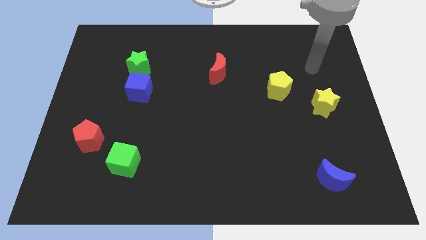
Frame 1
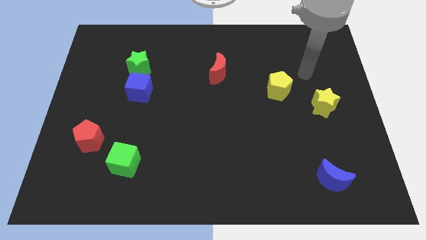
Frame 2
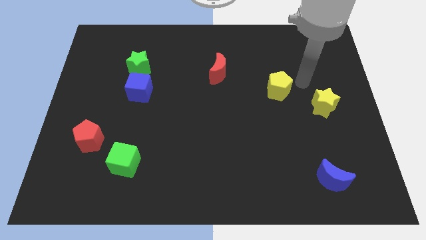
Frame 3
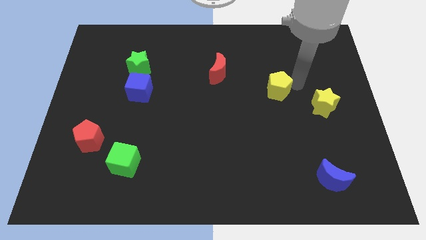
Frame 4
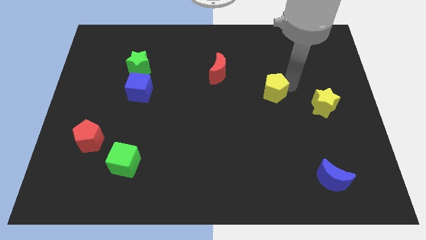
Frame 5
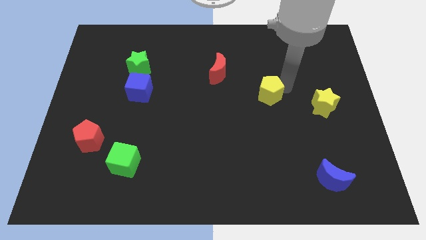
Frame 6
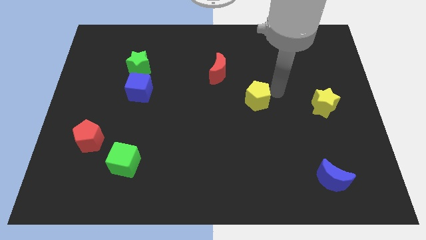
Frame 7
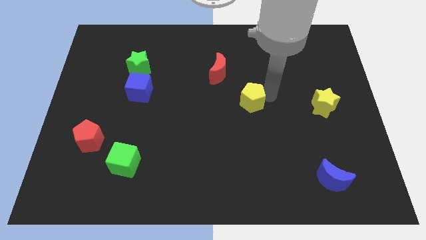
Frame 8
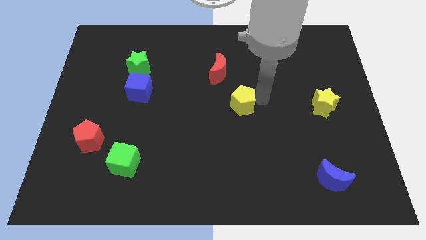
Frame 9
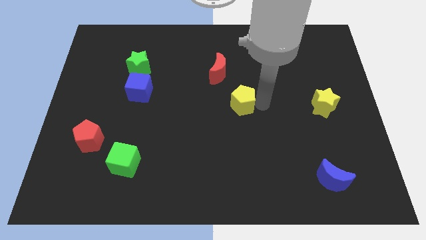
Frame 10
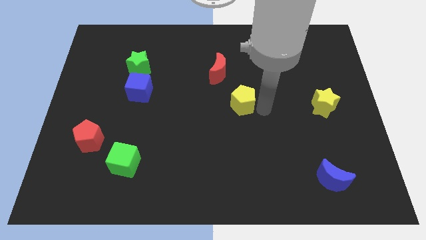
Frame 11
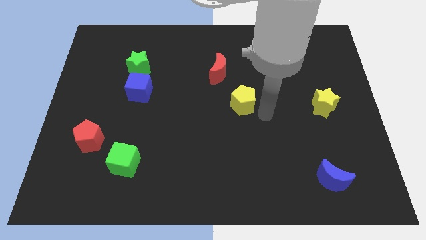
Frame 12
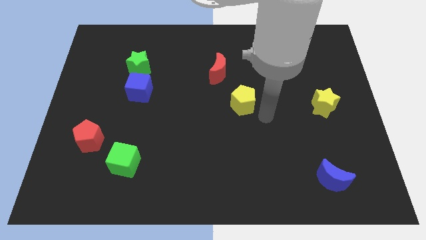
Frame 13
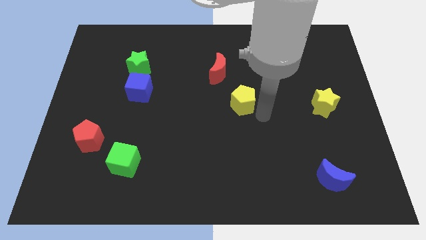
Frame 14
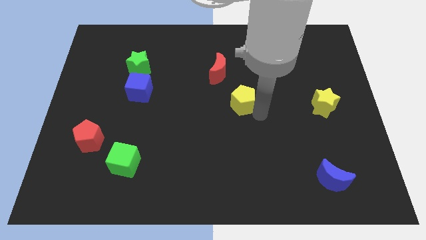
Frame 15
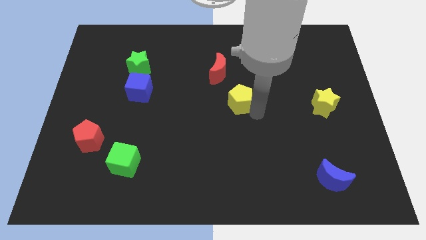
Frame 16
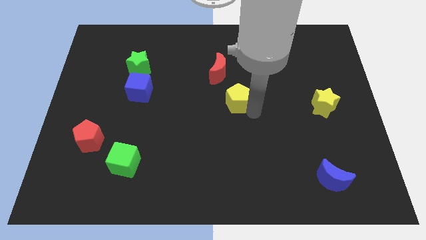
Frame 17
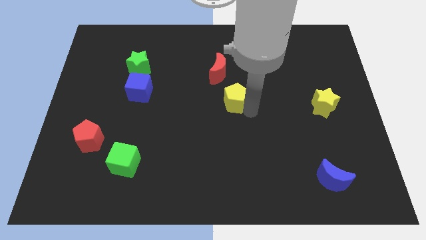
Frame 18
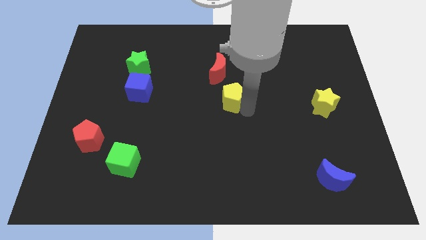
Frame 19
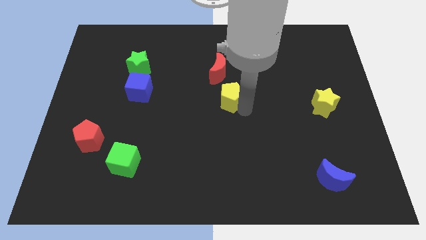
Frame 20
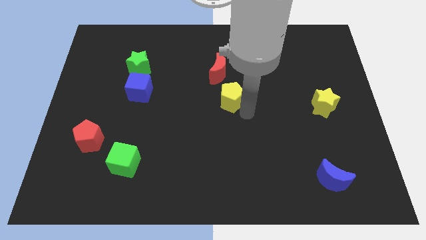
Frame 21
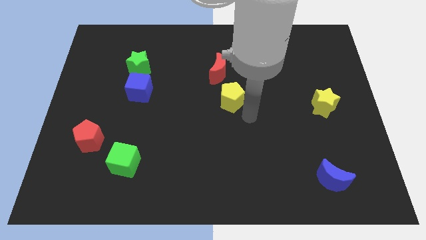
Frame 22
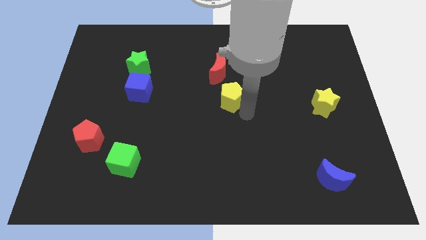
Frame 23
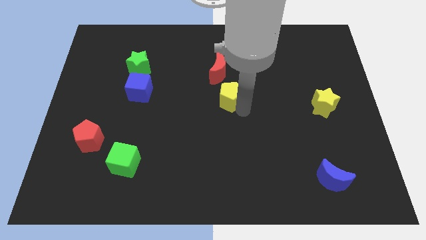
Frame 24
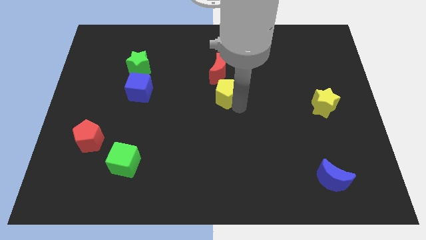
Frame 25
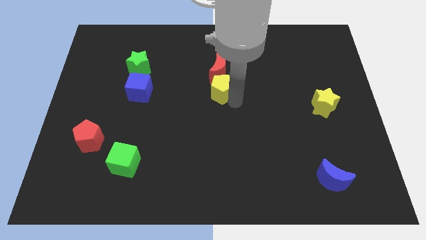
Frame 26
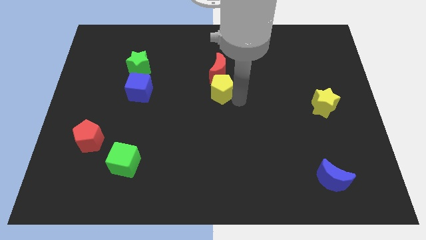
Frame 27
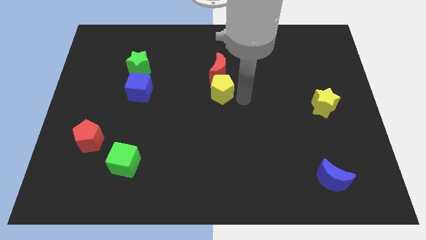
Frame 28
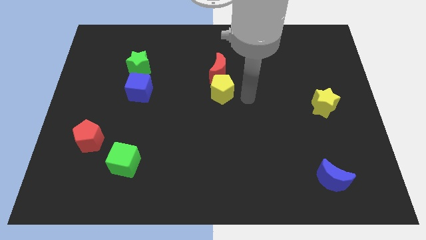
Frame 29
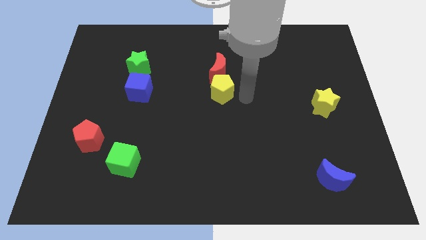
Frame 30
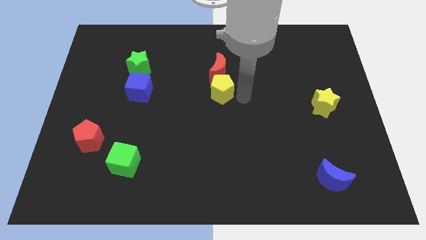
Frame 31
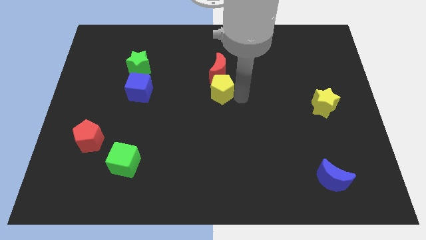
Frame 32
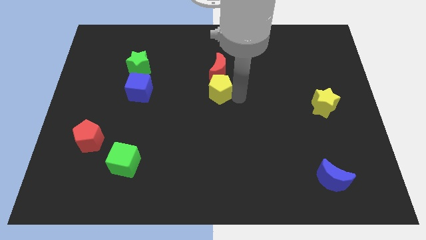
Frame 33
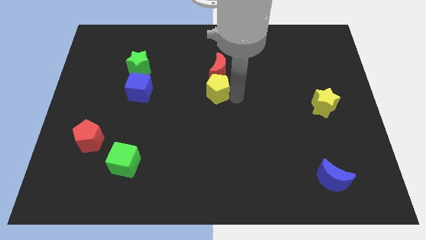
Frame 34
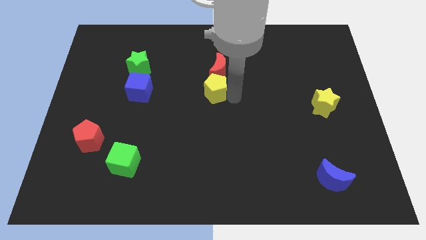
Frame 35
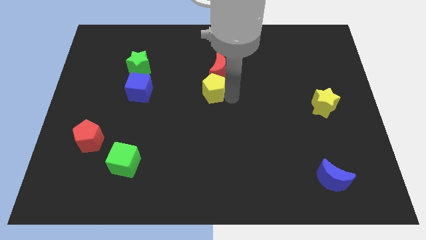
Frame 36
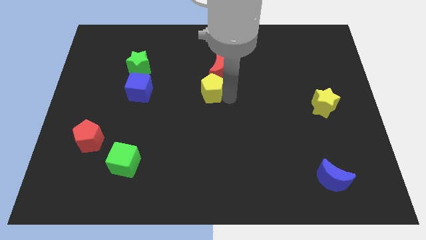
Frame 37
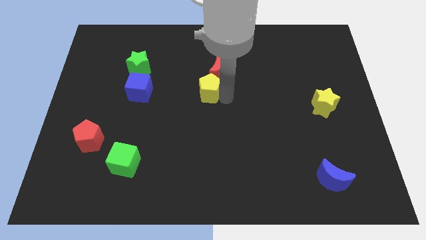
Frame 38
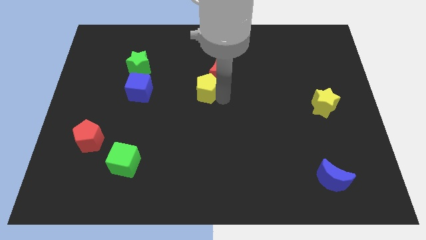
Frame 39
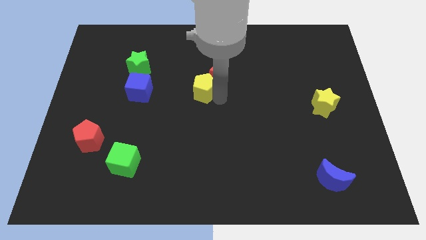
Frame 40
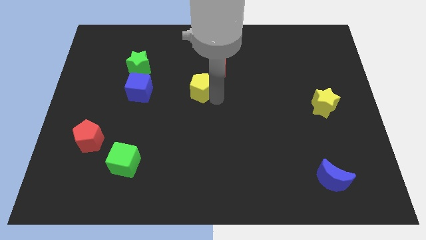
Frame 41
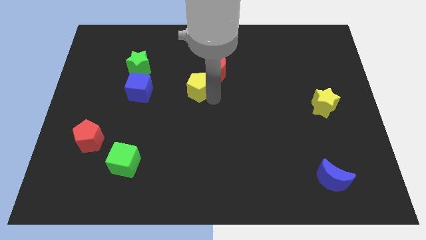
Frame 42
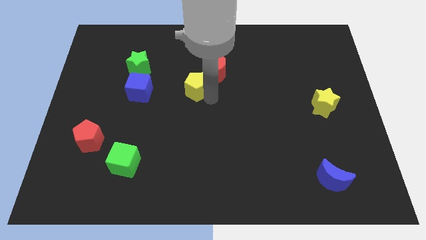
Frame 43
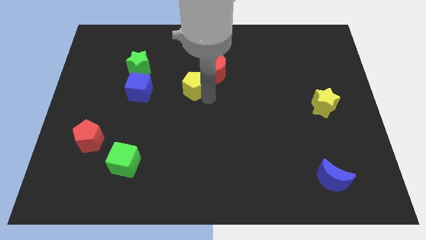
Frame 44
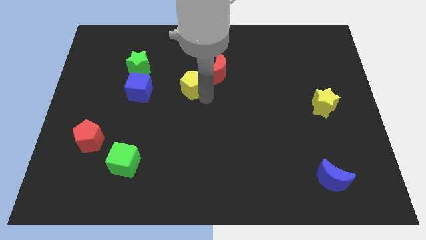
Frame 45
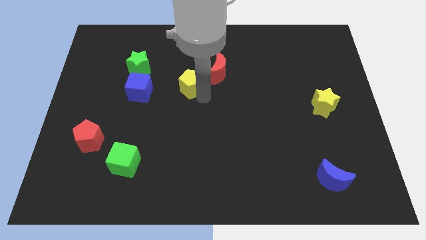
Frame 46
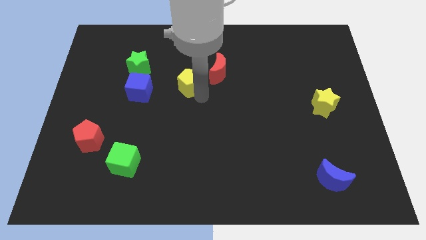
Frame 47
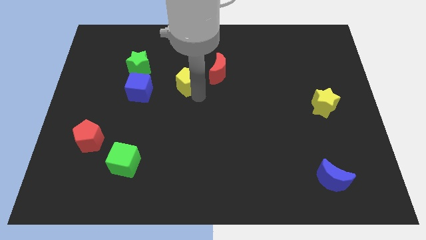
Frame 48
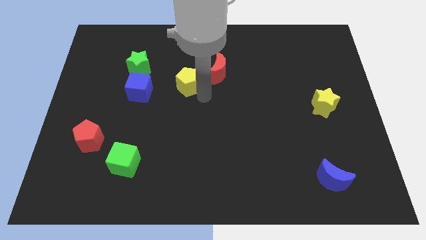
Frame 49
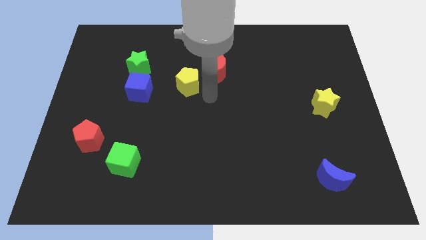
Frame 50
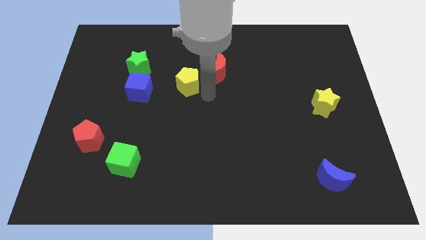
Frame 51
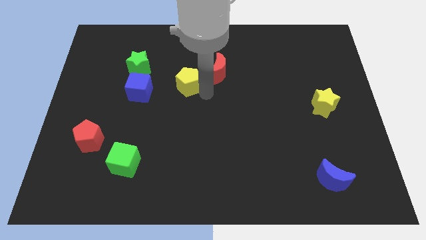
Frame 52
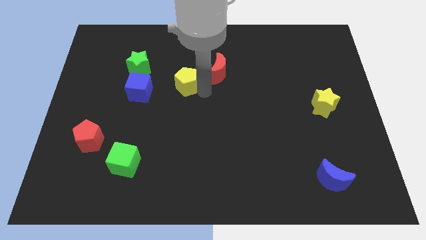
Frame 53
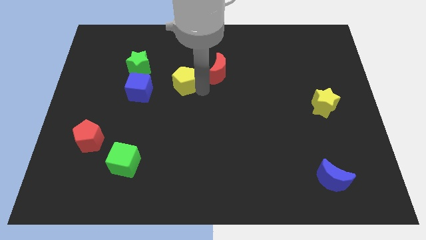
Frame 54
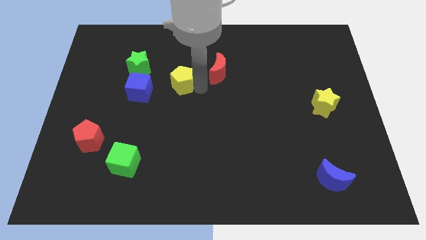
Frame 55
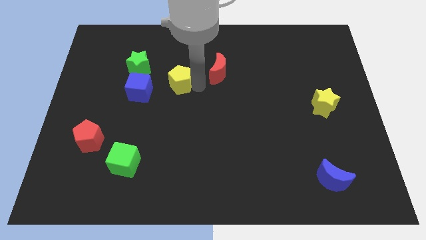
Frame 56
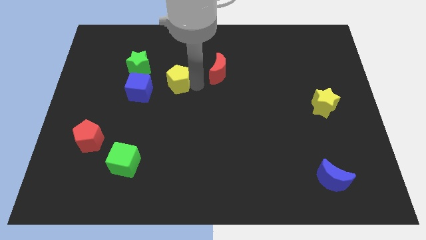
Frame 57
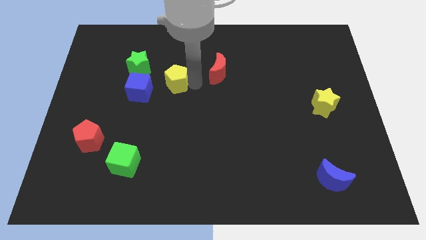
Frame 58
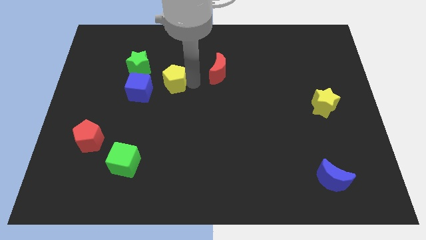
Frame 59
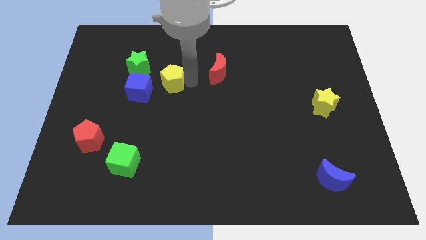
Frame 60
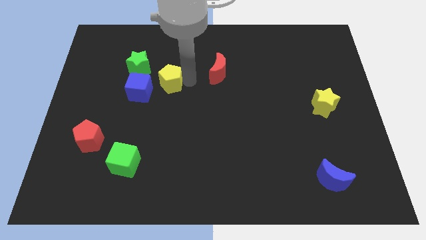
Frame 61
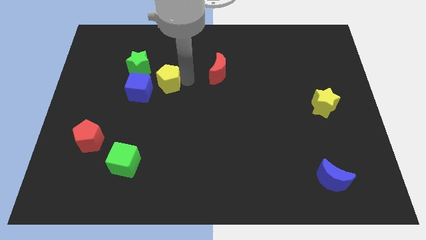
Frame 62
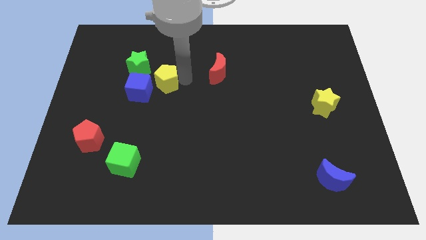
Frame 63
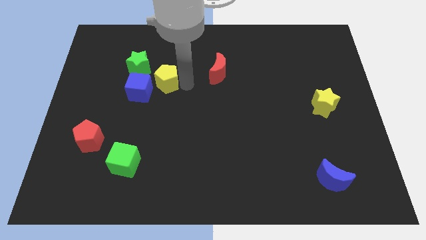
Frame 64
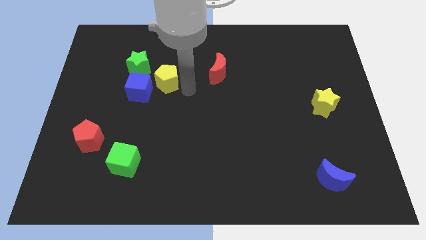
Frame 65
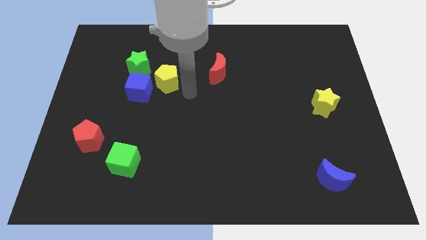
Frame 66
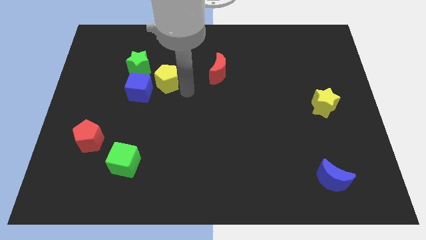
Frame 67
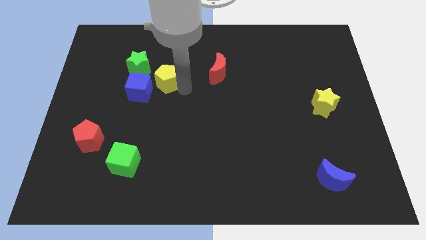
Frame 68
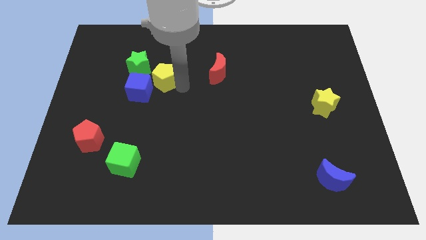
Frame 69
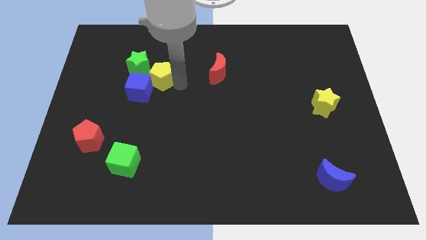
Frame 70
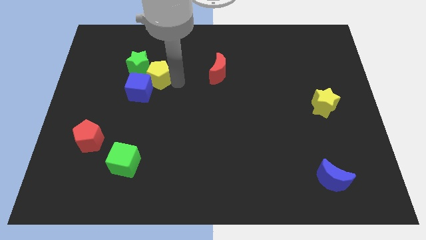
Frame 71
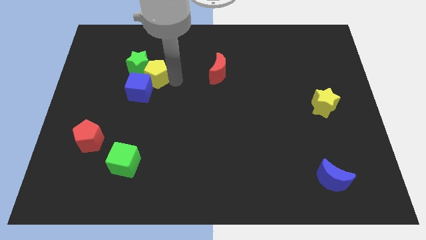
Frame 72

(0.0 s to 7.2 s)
move the yellow pentagon to the green star

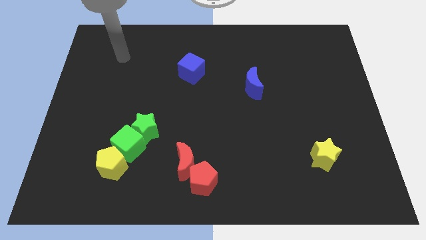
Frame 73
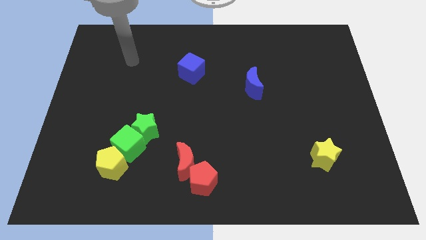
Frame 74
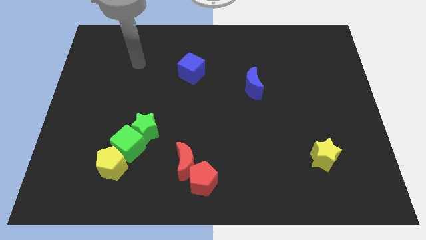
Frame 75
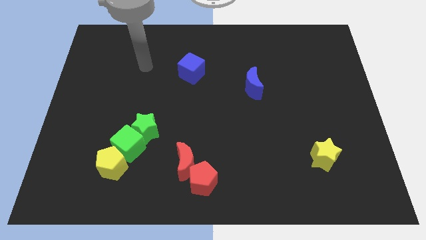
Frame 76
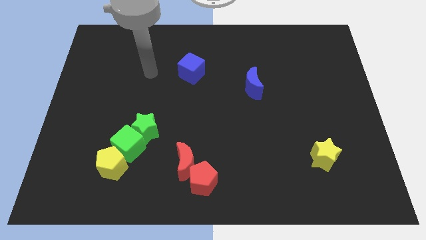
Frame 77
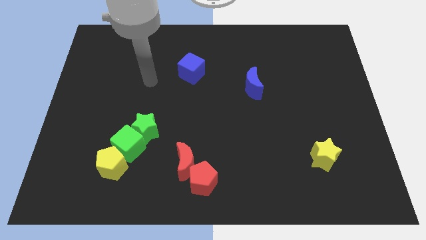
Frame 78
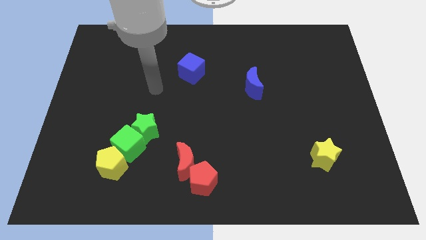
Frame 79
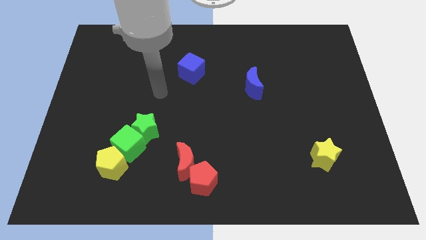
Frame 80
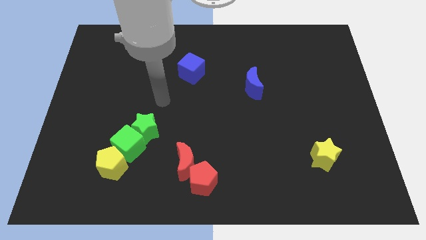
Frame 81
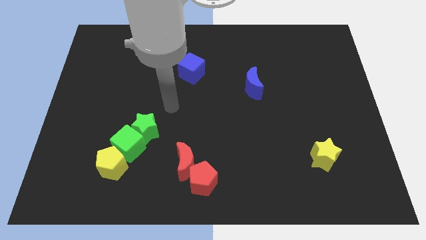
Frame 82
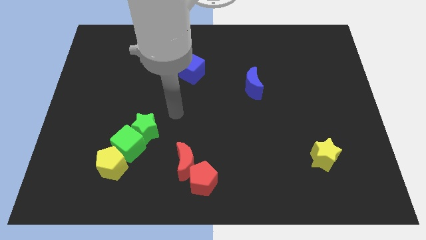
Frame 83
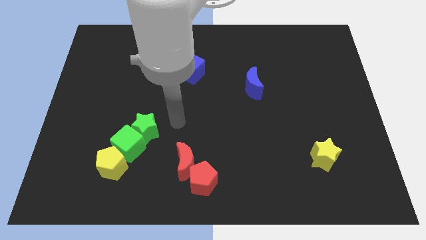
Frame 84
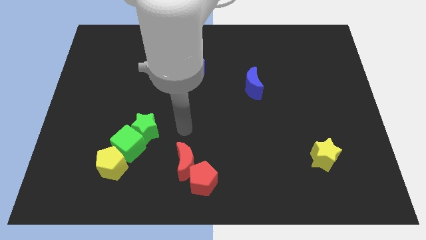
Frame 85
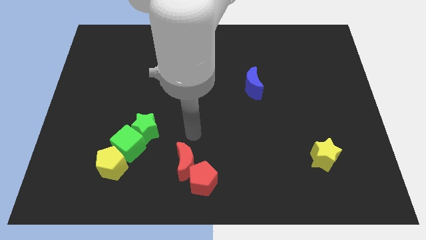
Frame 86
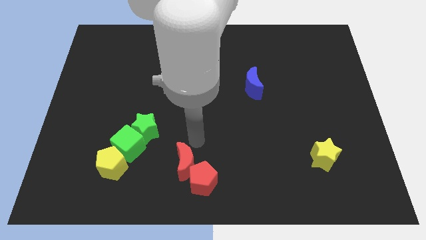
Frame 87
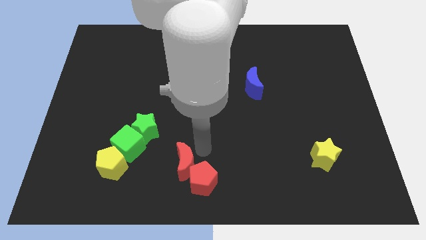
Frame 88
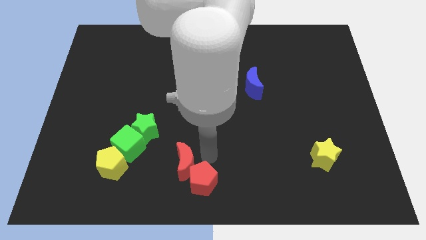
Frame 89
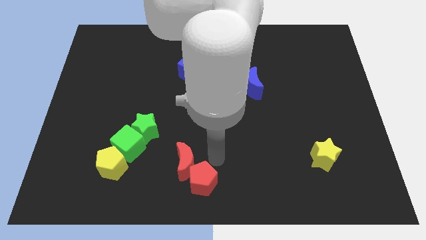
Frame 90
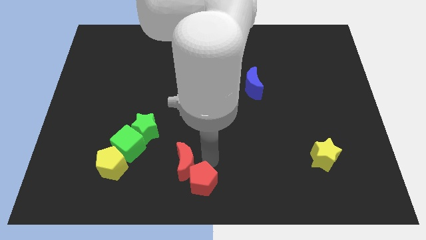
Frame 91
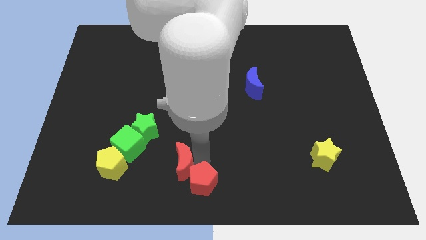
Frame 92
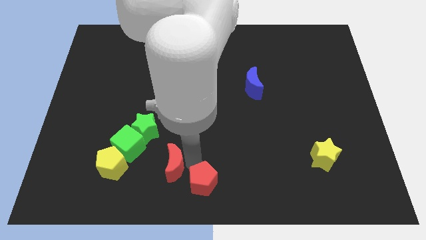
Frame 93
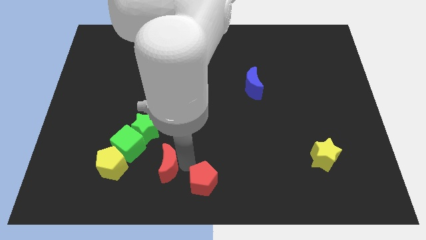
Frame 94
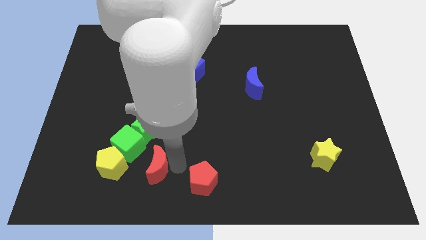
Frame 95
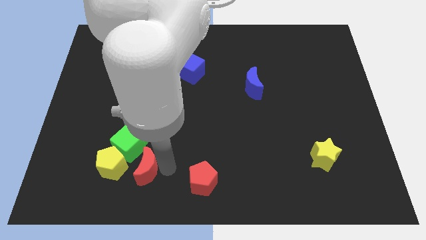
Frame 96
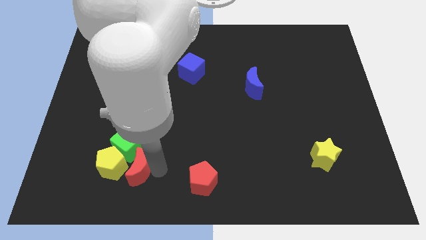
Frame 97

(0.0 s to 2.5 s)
slide the red moon close to the yellow pentagon
